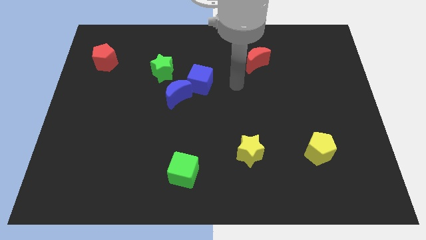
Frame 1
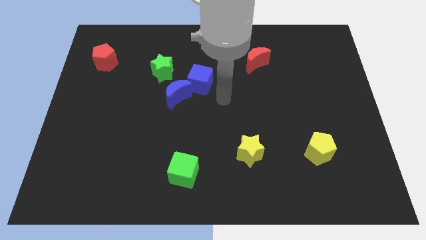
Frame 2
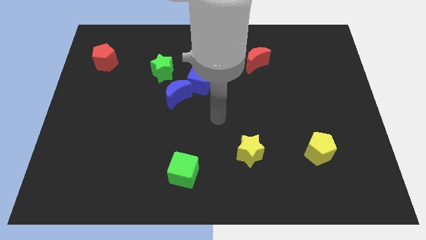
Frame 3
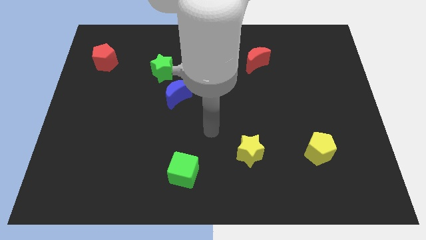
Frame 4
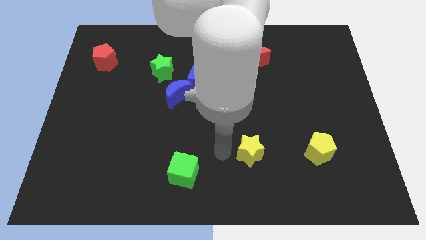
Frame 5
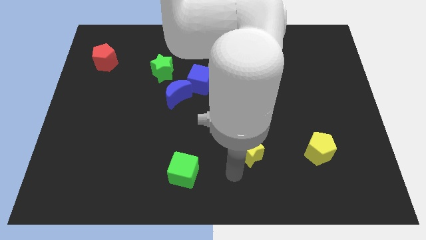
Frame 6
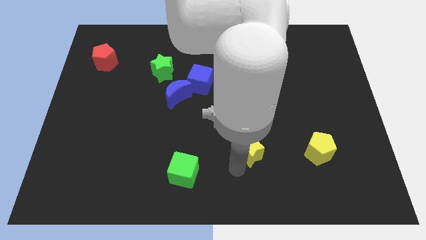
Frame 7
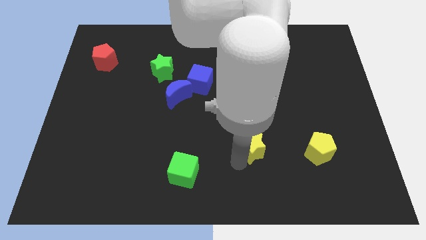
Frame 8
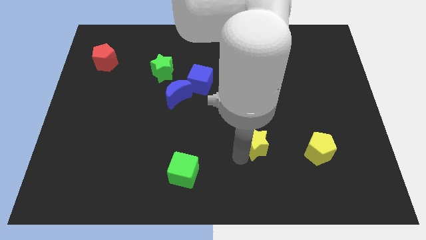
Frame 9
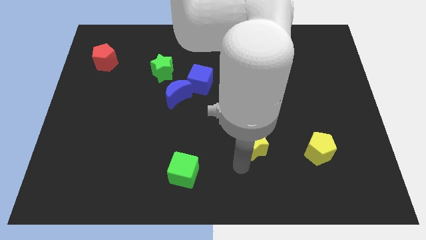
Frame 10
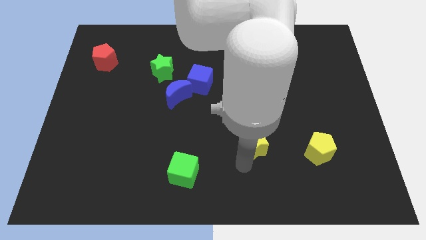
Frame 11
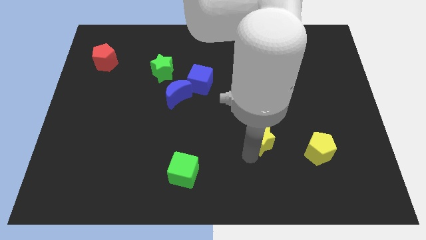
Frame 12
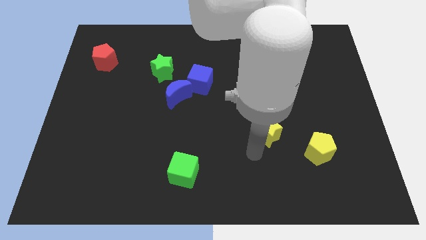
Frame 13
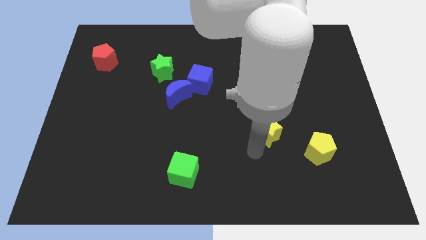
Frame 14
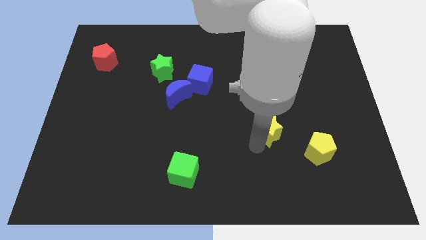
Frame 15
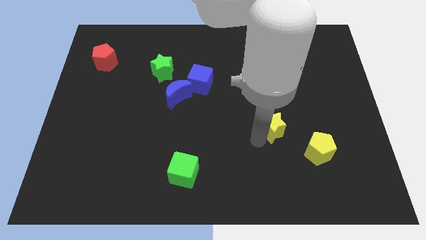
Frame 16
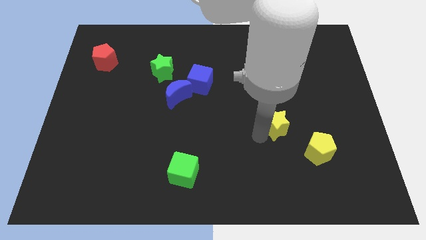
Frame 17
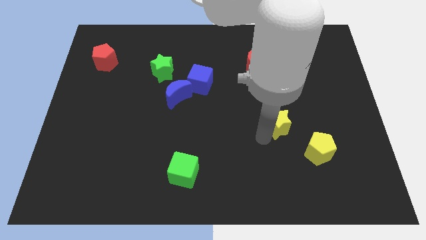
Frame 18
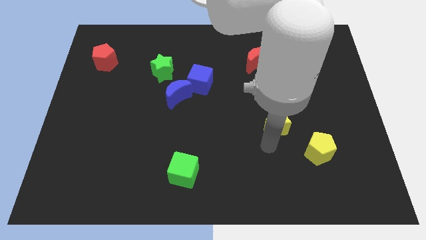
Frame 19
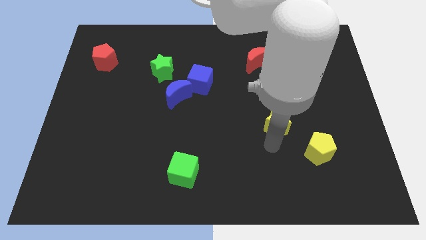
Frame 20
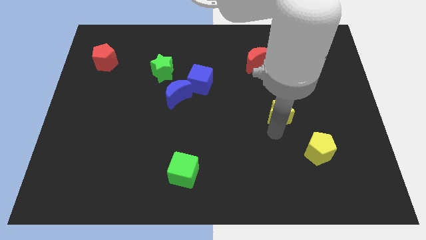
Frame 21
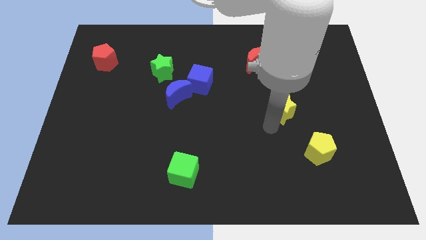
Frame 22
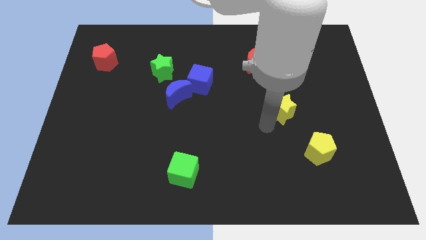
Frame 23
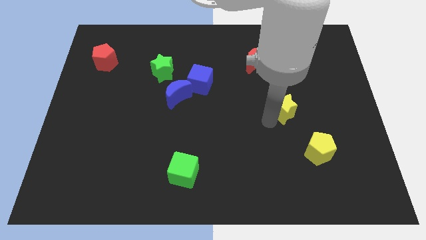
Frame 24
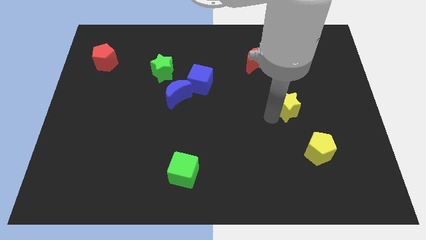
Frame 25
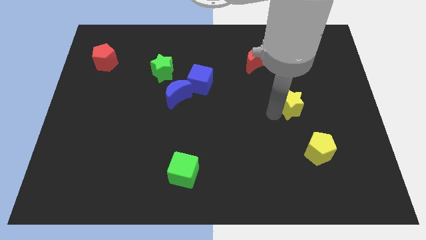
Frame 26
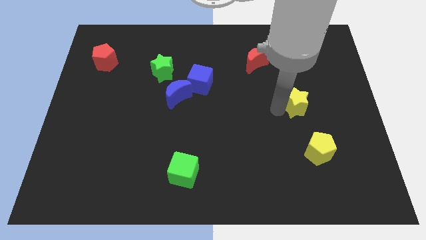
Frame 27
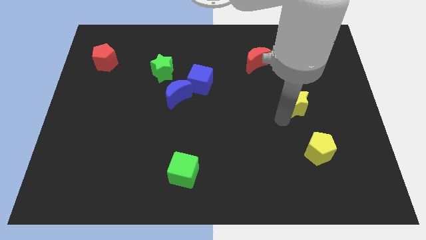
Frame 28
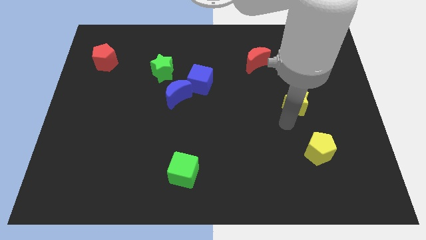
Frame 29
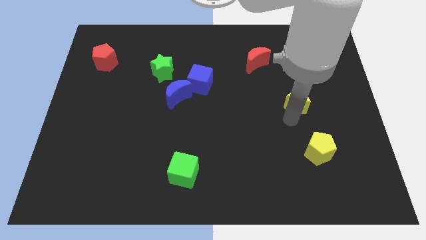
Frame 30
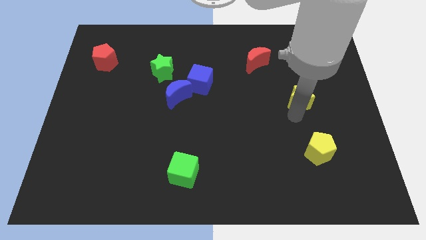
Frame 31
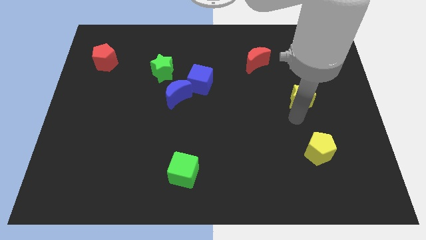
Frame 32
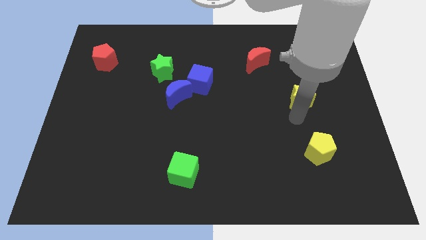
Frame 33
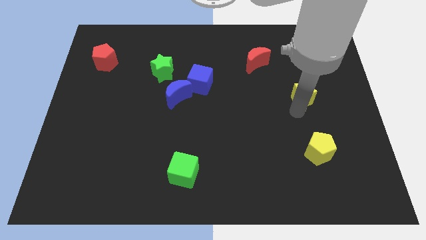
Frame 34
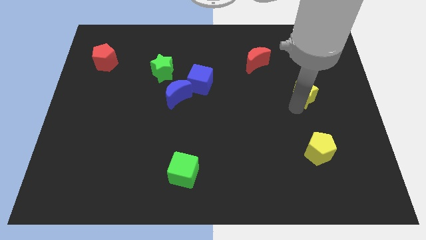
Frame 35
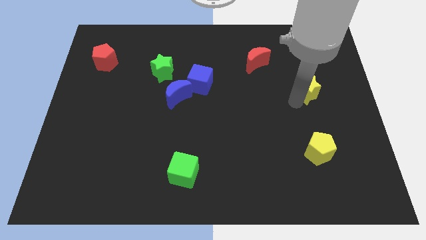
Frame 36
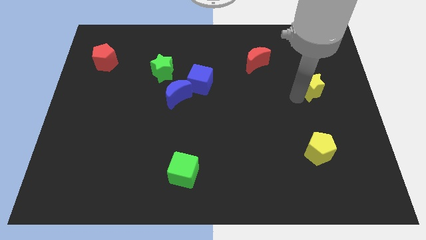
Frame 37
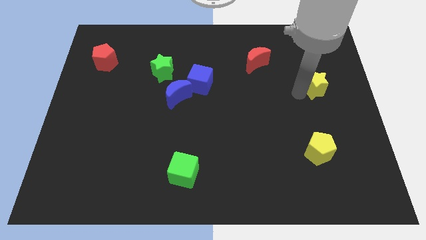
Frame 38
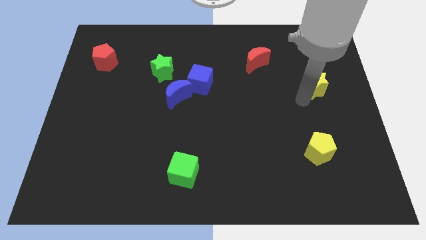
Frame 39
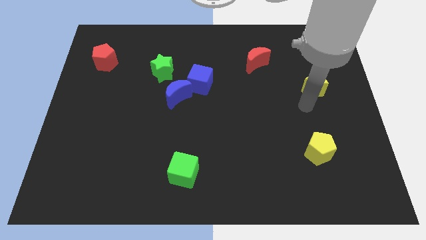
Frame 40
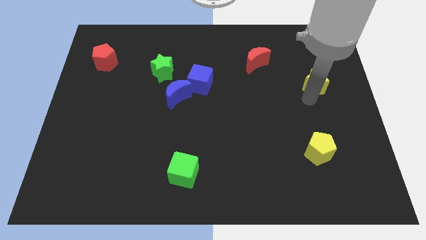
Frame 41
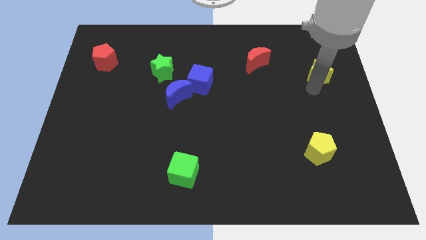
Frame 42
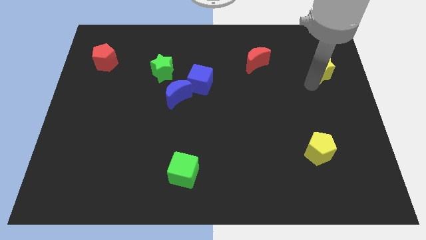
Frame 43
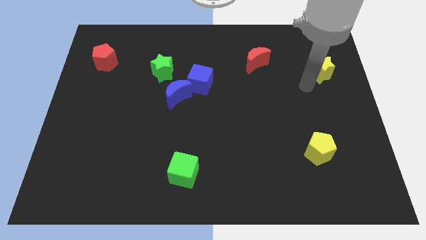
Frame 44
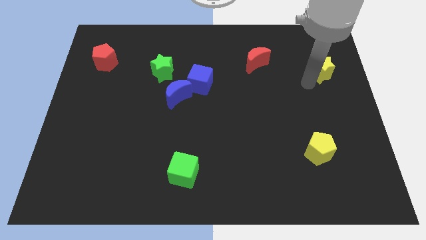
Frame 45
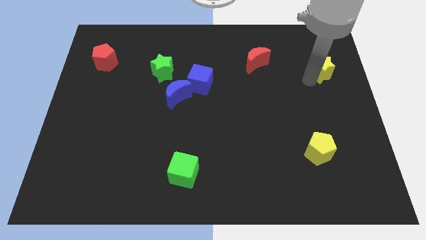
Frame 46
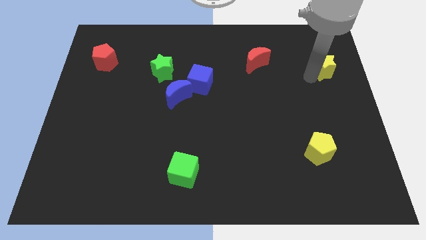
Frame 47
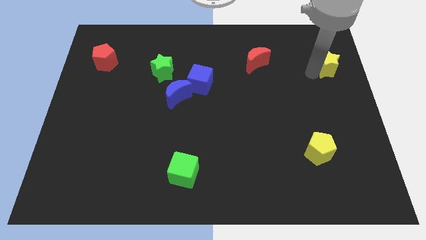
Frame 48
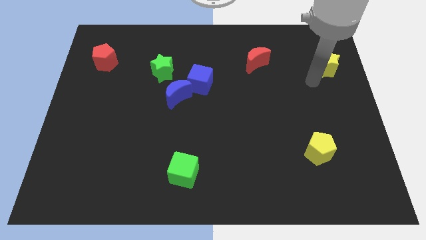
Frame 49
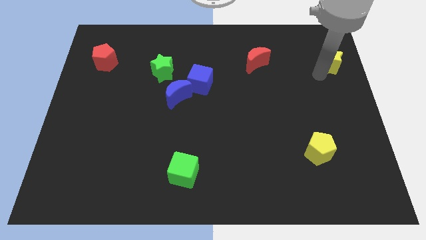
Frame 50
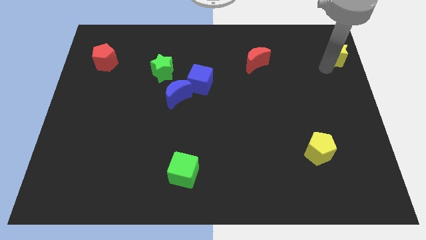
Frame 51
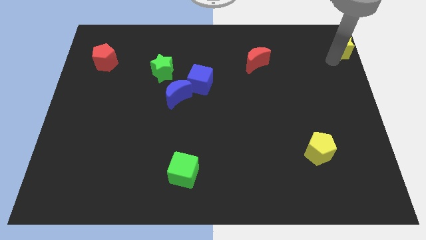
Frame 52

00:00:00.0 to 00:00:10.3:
move the yellow star to the upper right corner

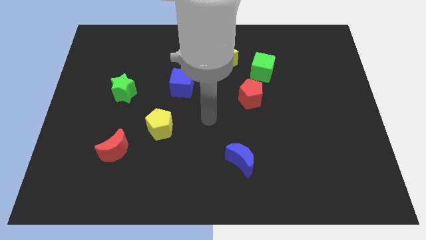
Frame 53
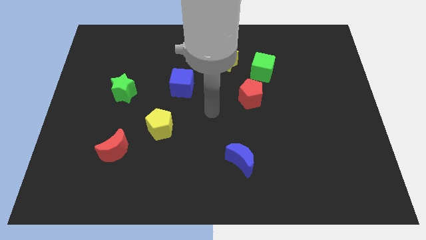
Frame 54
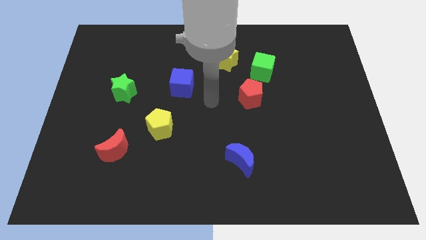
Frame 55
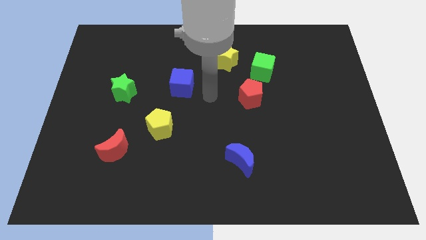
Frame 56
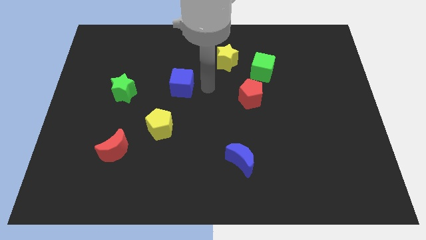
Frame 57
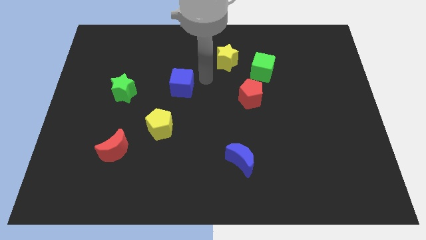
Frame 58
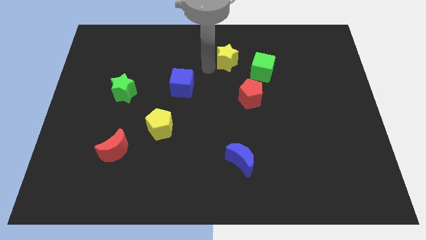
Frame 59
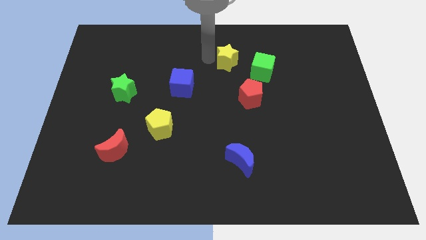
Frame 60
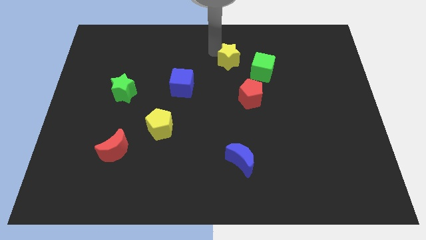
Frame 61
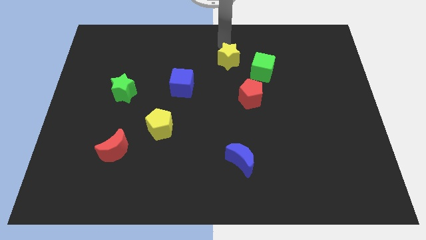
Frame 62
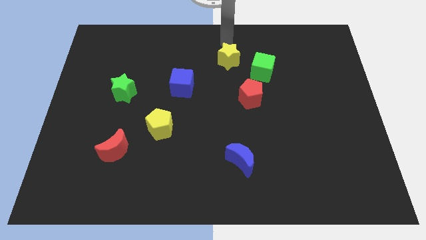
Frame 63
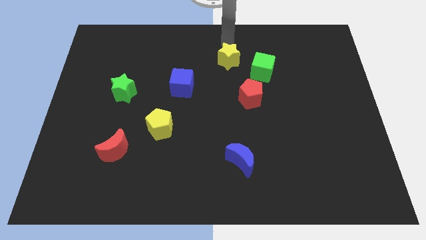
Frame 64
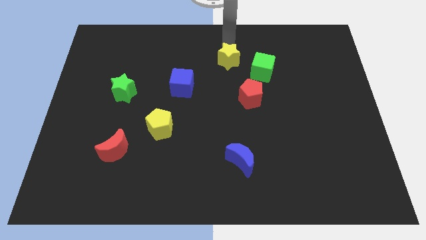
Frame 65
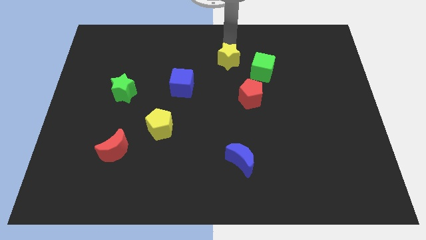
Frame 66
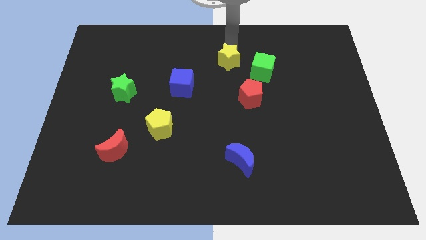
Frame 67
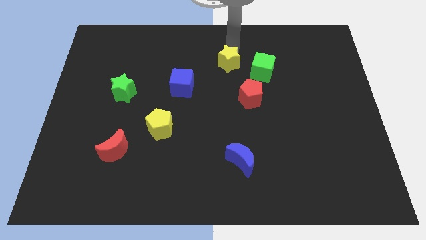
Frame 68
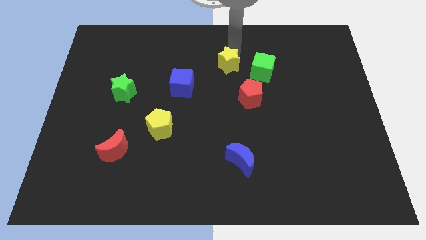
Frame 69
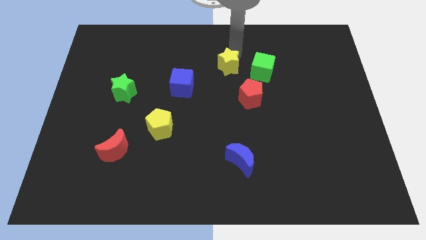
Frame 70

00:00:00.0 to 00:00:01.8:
push the yellow star to the center of the board

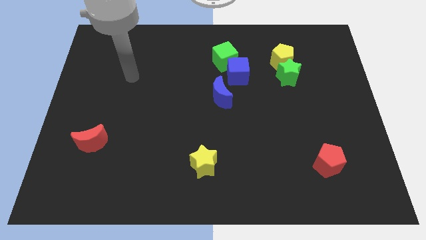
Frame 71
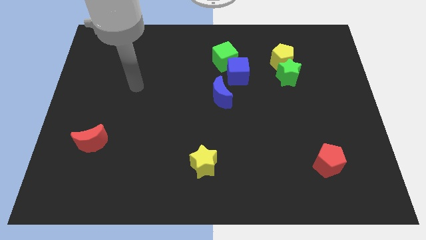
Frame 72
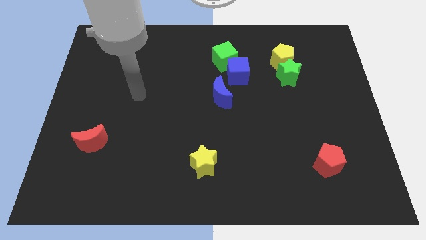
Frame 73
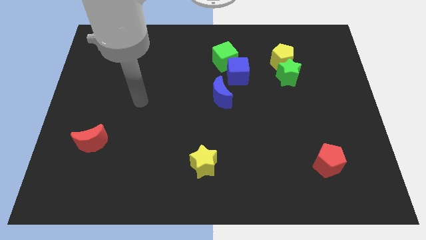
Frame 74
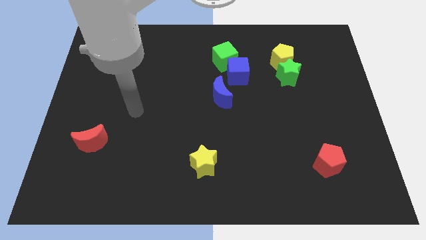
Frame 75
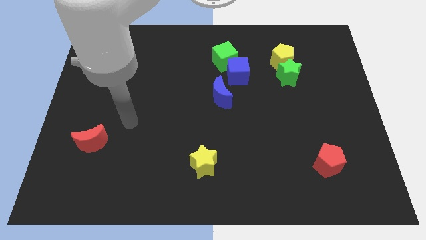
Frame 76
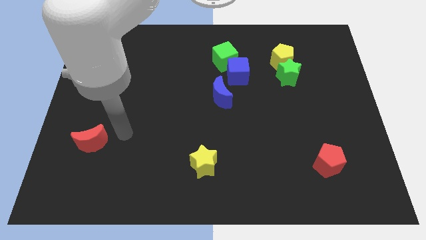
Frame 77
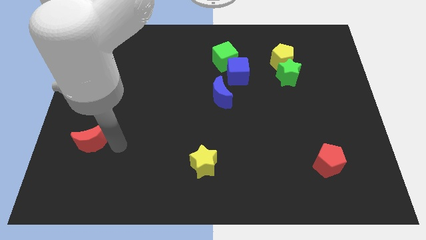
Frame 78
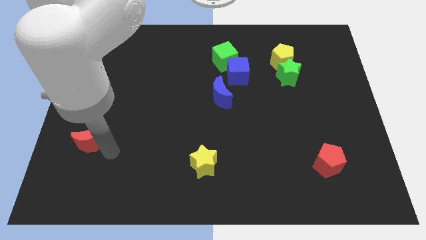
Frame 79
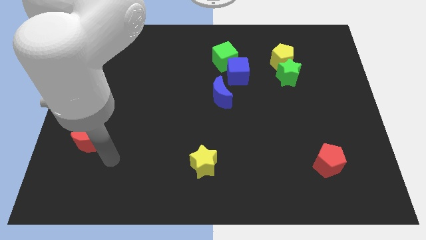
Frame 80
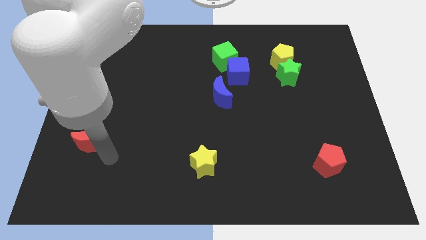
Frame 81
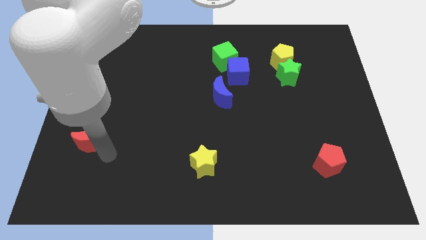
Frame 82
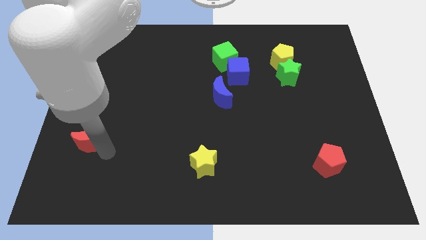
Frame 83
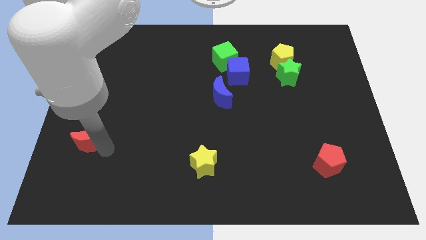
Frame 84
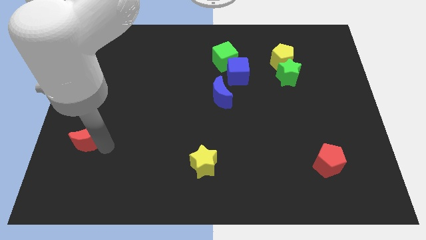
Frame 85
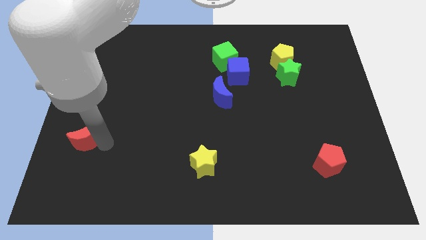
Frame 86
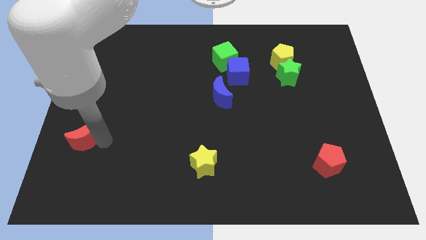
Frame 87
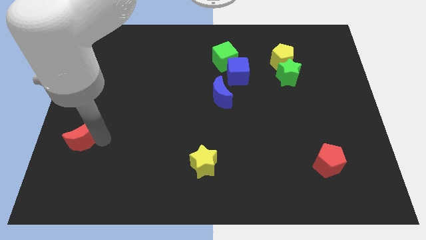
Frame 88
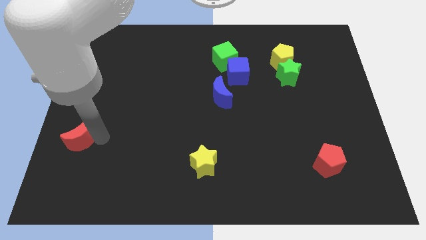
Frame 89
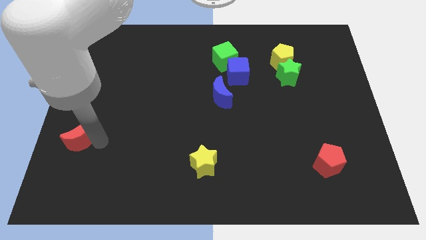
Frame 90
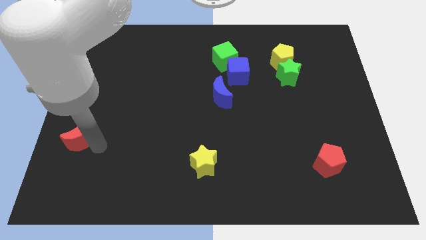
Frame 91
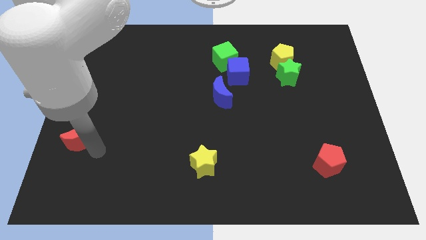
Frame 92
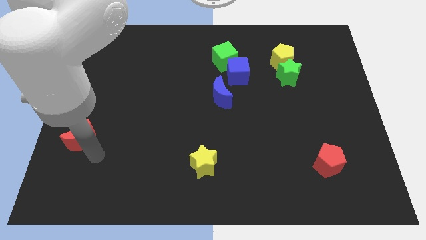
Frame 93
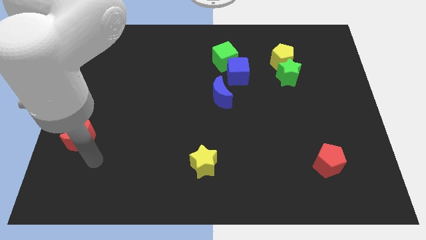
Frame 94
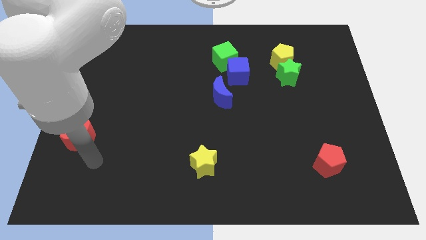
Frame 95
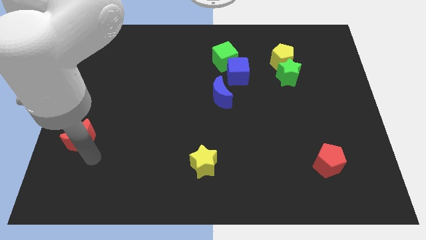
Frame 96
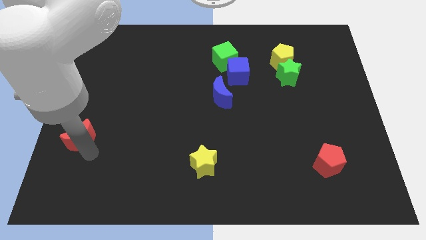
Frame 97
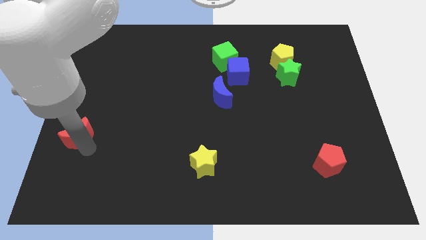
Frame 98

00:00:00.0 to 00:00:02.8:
slide the red moon to the center left
